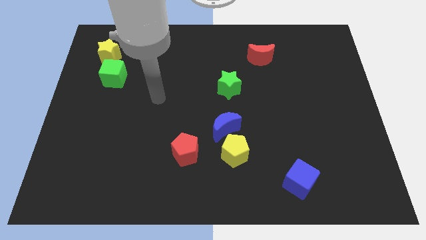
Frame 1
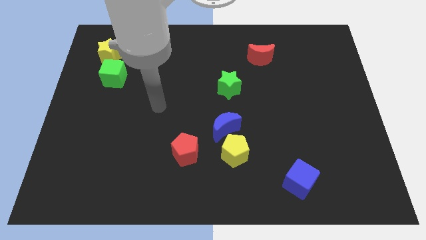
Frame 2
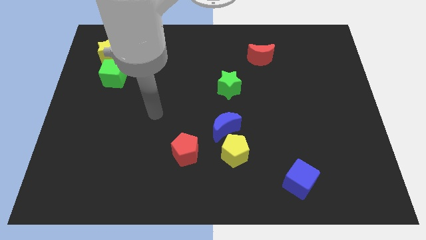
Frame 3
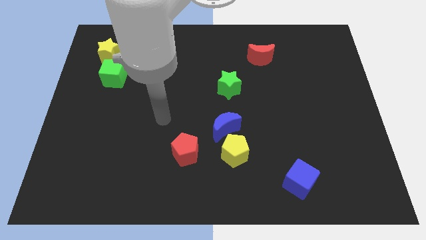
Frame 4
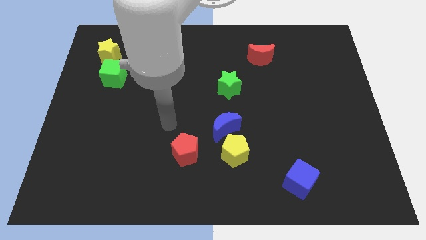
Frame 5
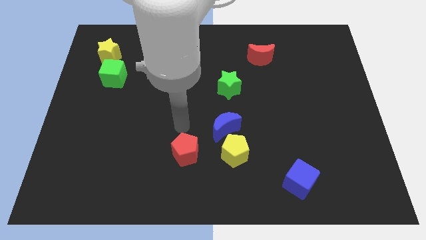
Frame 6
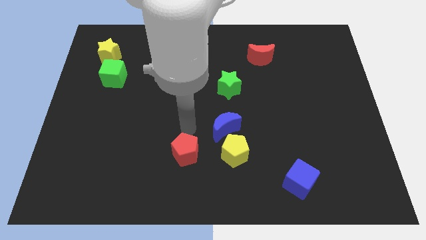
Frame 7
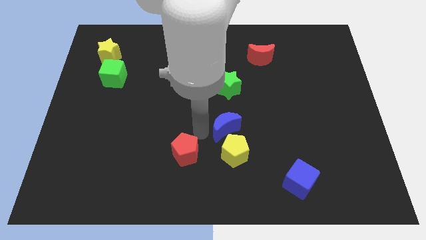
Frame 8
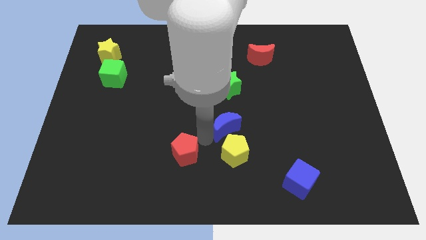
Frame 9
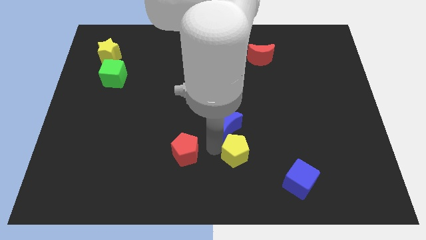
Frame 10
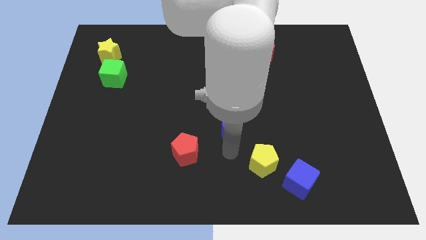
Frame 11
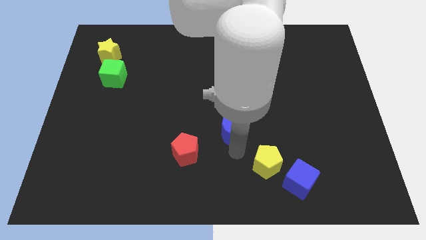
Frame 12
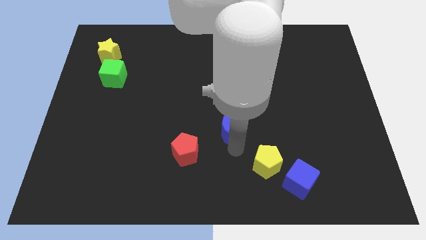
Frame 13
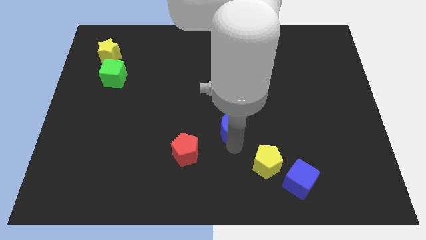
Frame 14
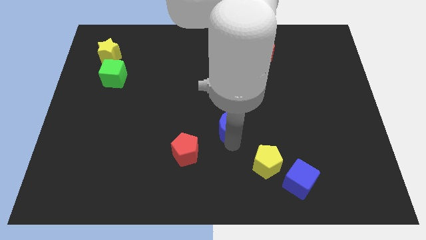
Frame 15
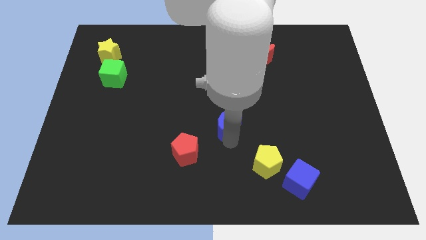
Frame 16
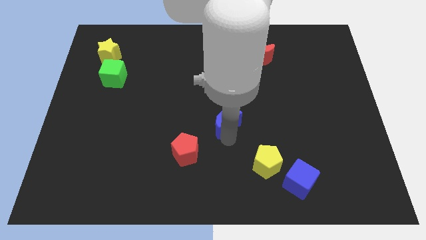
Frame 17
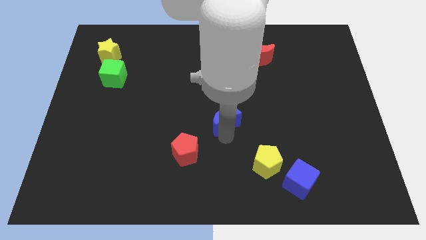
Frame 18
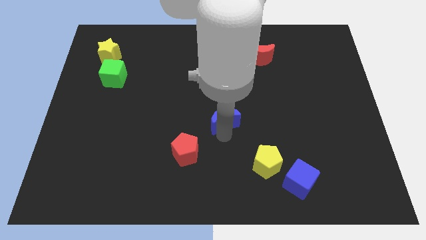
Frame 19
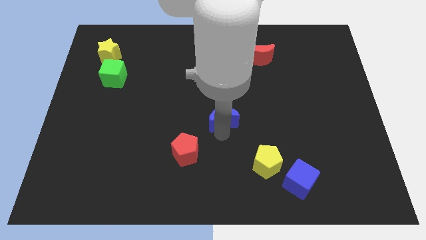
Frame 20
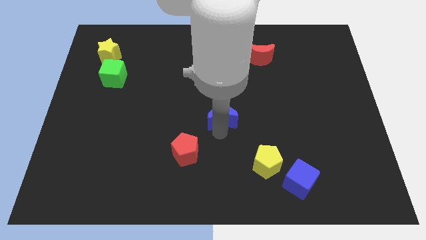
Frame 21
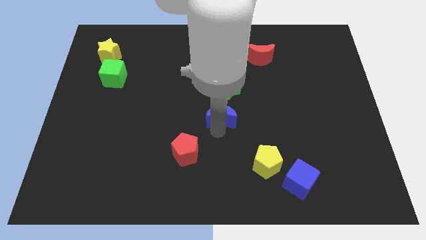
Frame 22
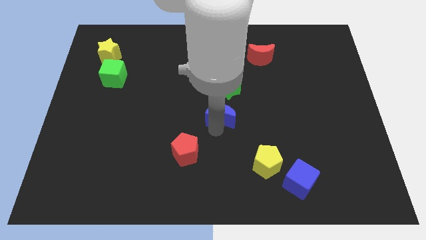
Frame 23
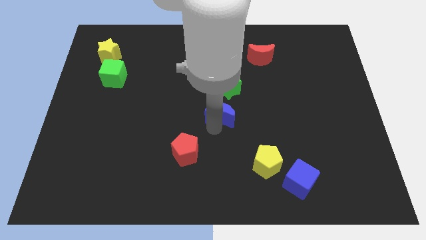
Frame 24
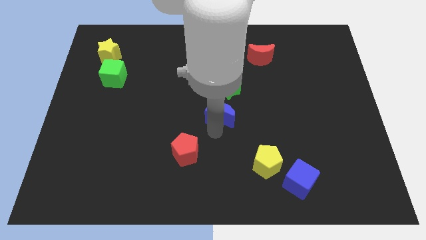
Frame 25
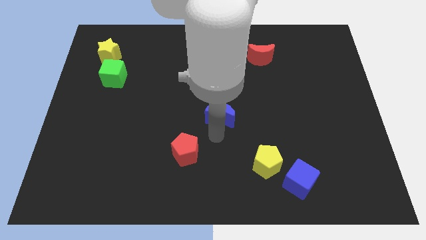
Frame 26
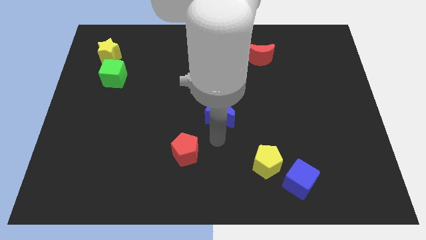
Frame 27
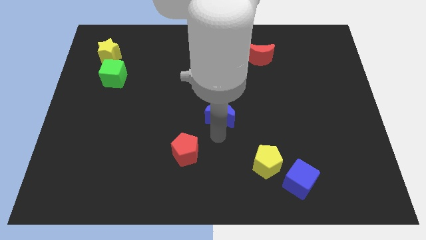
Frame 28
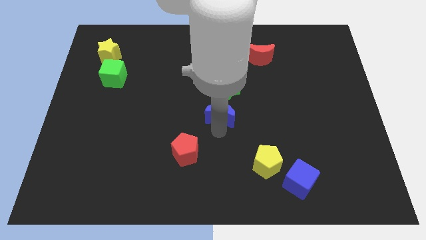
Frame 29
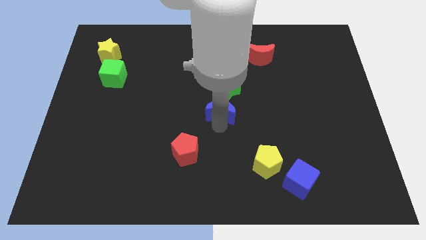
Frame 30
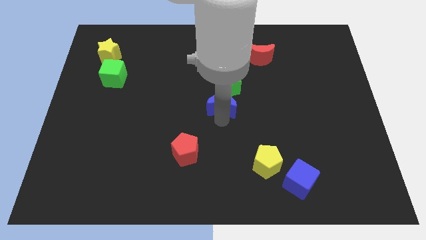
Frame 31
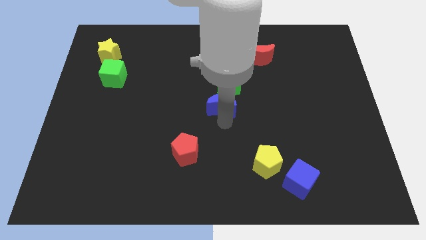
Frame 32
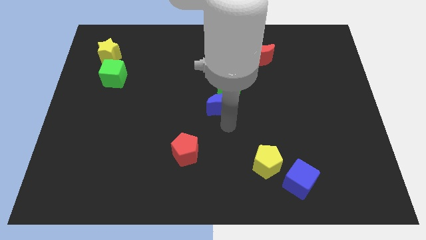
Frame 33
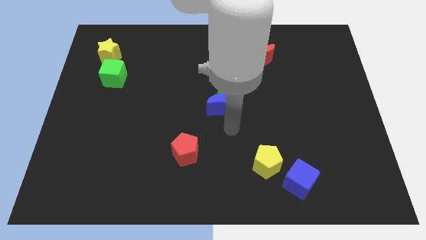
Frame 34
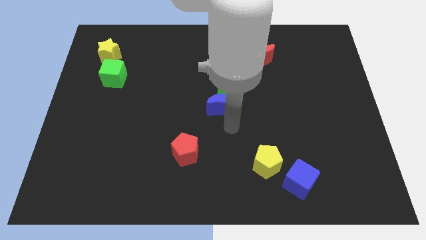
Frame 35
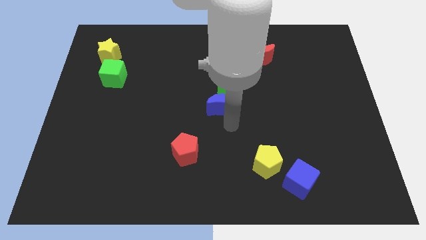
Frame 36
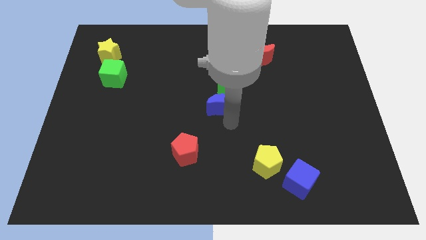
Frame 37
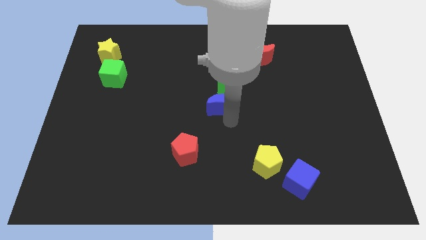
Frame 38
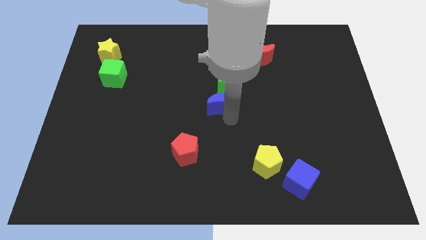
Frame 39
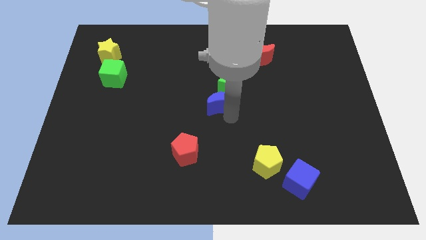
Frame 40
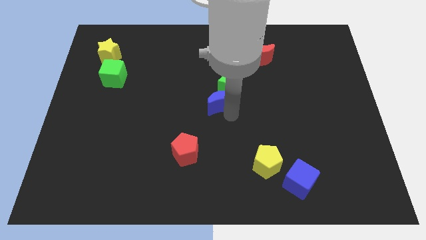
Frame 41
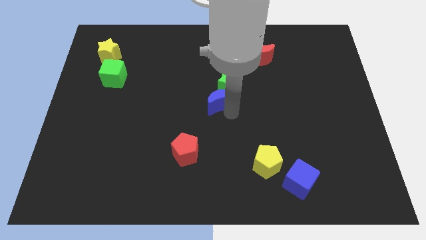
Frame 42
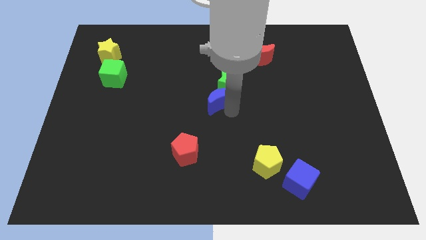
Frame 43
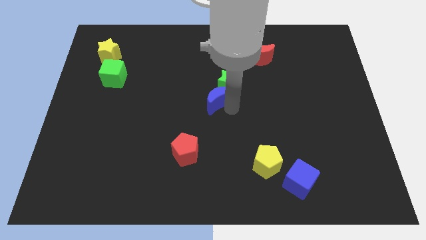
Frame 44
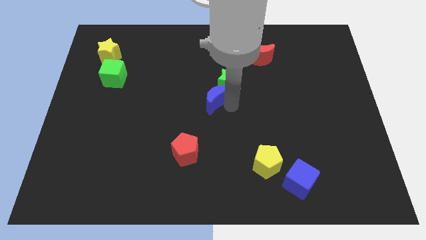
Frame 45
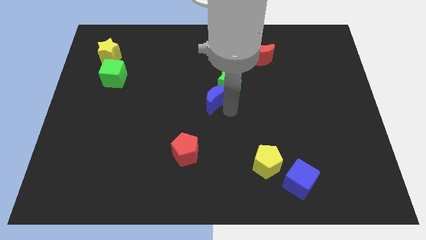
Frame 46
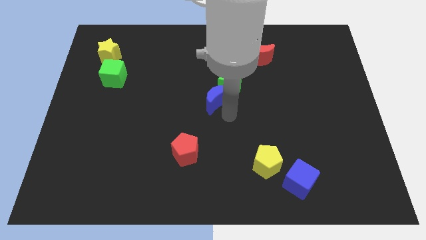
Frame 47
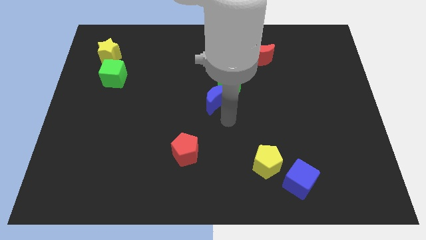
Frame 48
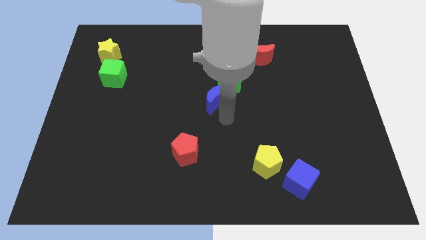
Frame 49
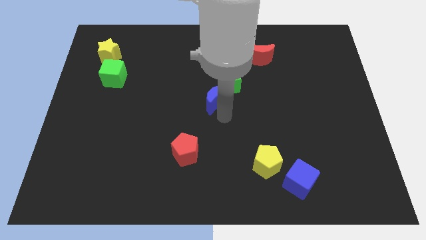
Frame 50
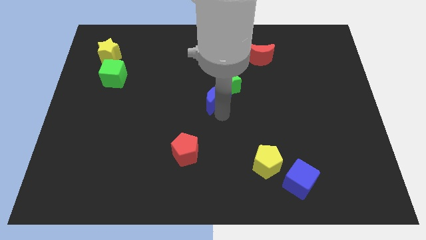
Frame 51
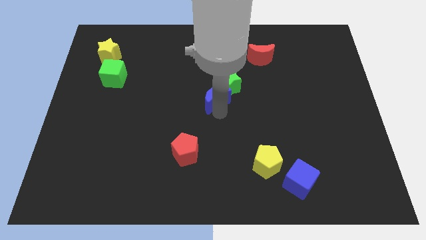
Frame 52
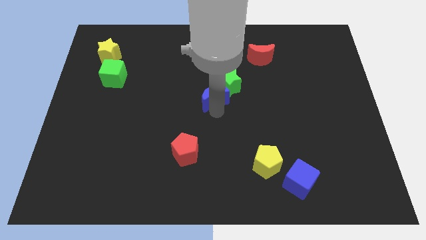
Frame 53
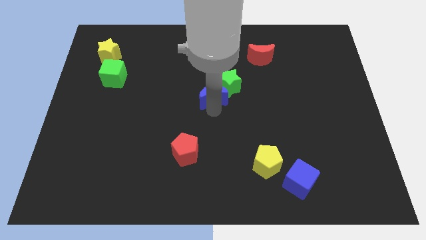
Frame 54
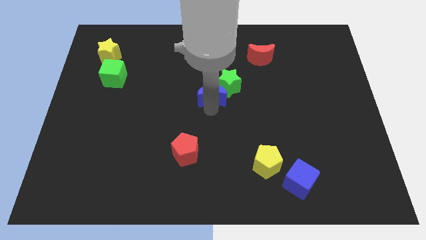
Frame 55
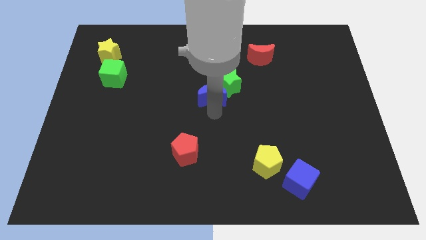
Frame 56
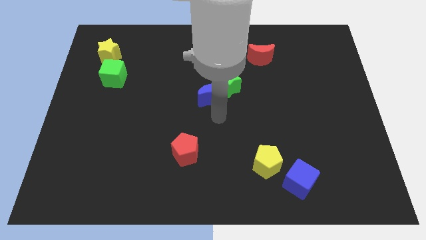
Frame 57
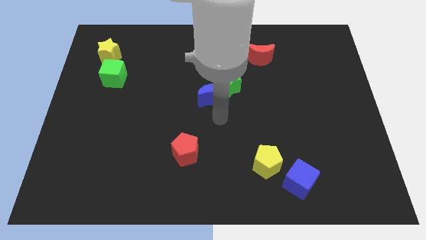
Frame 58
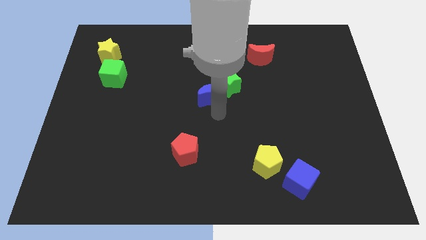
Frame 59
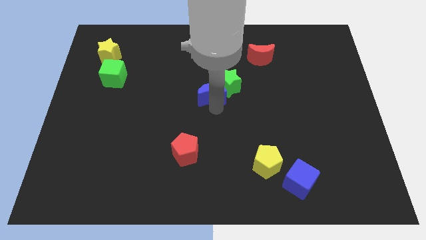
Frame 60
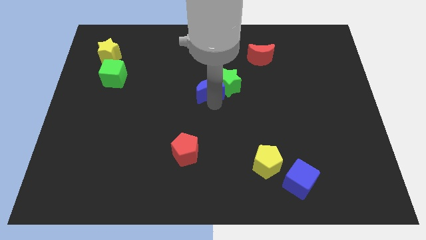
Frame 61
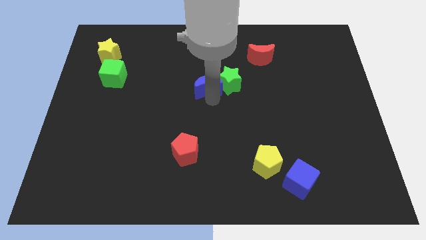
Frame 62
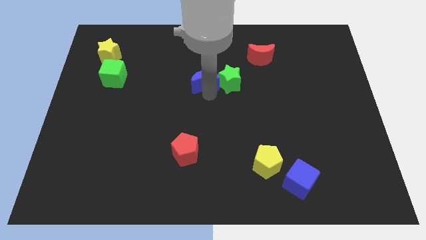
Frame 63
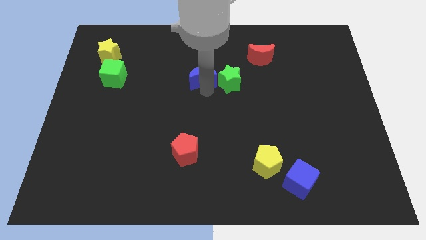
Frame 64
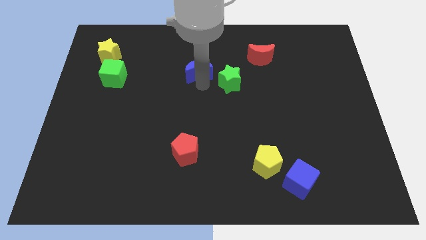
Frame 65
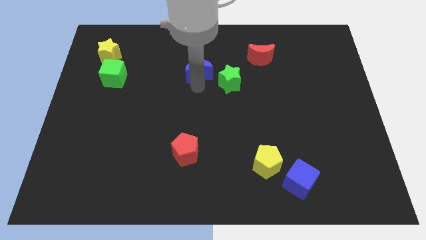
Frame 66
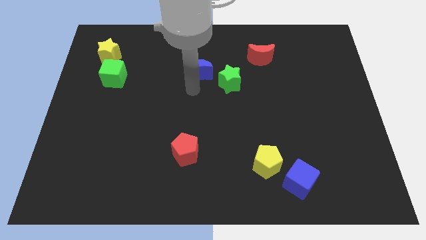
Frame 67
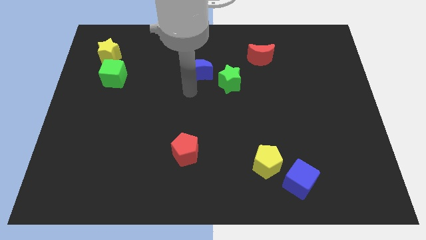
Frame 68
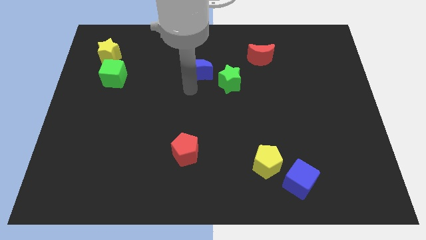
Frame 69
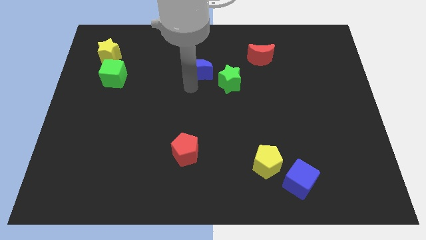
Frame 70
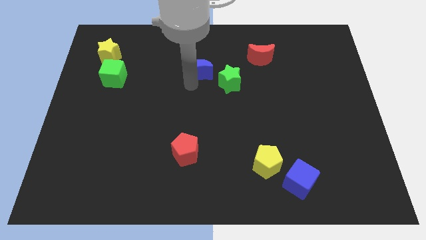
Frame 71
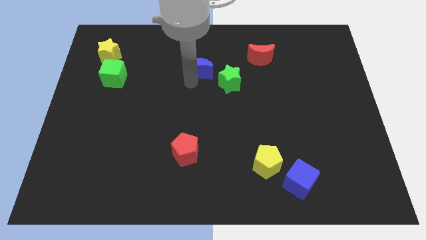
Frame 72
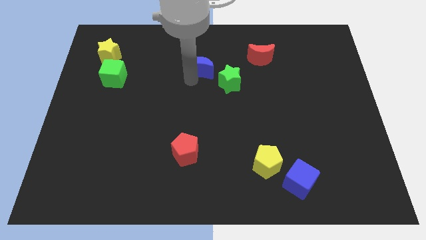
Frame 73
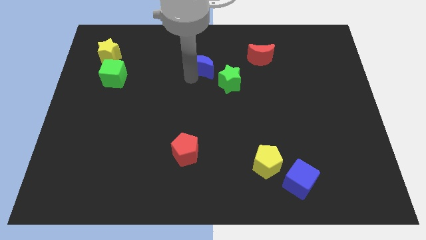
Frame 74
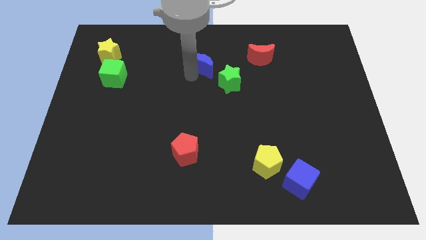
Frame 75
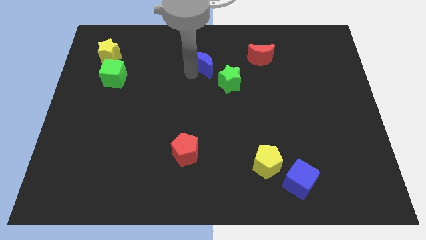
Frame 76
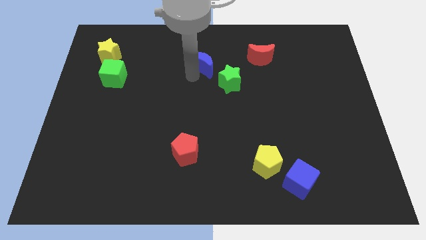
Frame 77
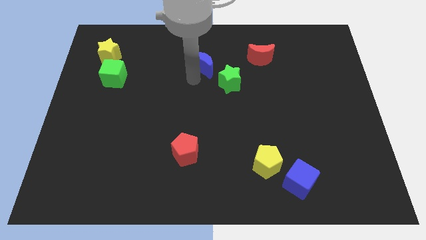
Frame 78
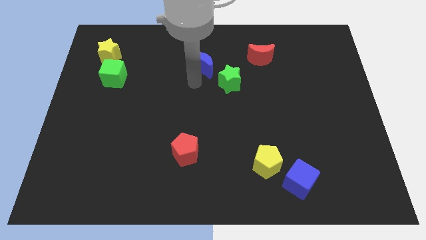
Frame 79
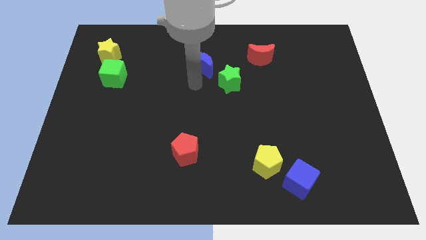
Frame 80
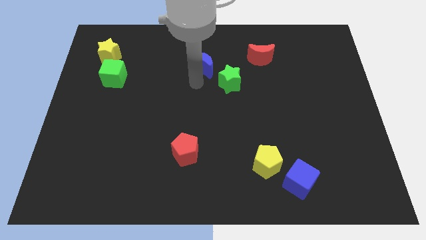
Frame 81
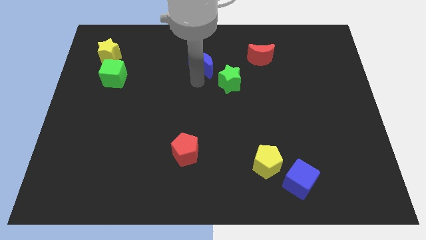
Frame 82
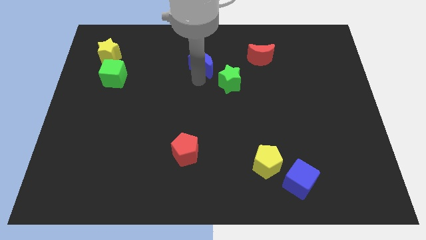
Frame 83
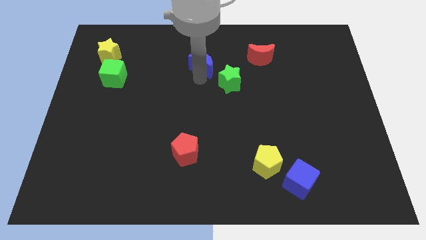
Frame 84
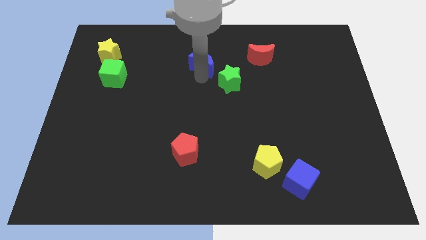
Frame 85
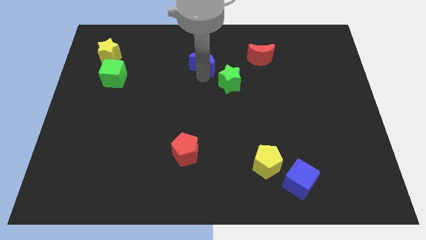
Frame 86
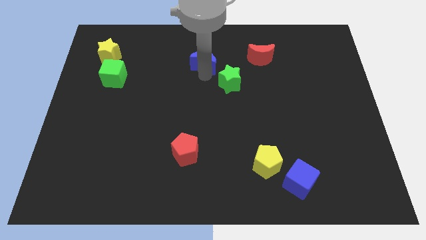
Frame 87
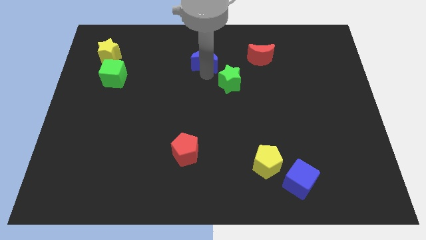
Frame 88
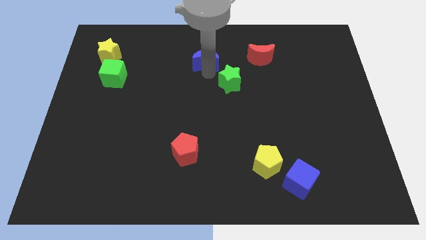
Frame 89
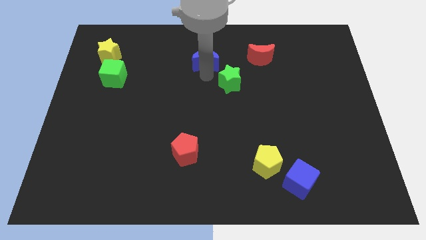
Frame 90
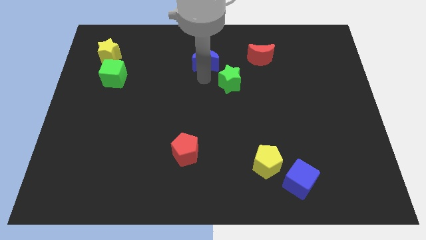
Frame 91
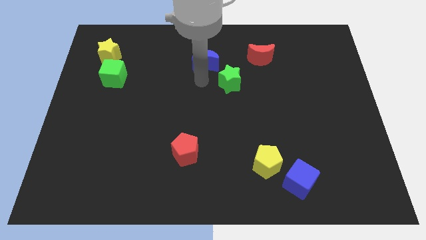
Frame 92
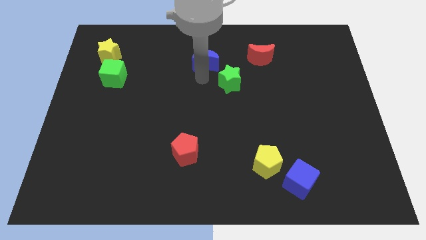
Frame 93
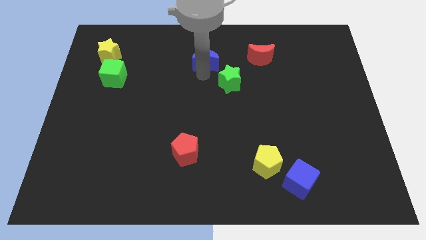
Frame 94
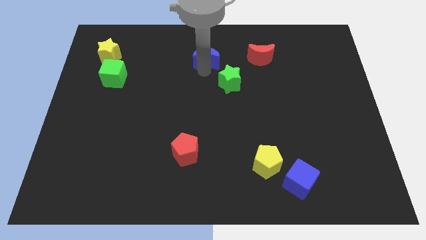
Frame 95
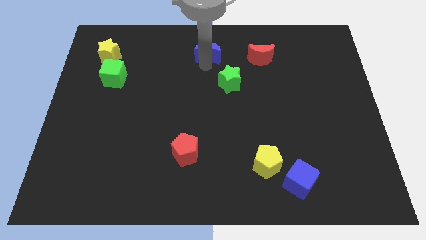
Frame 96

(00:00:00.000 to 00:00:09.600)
move the blue moon to the top
